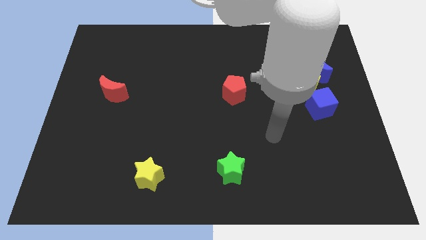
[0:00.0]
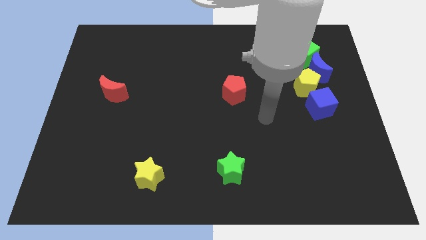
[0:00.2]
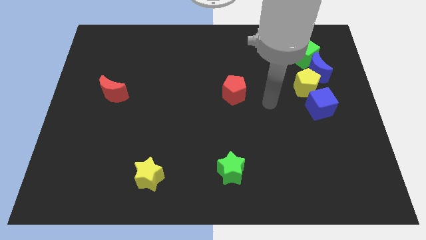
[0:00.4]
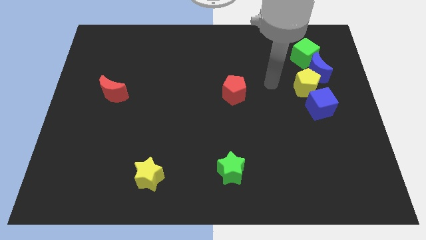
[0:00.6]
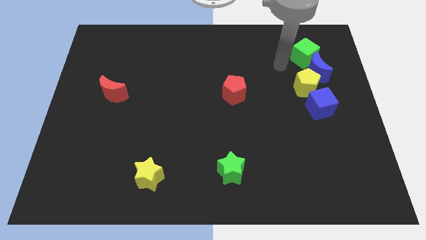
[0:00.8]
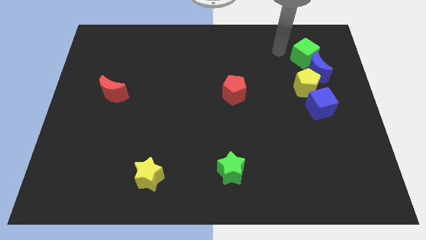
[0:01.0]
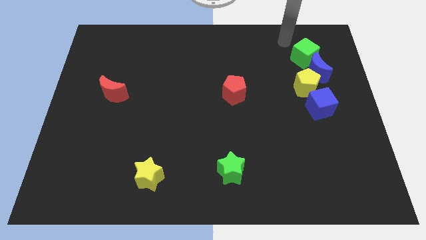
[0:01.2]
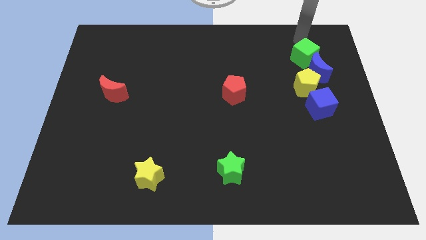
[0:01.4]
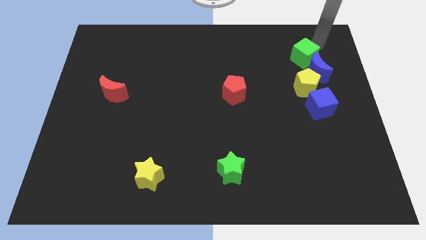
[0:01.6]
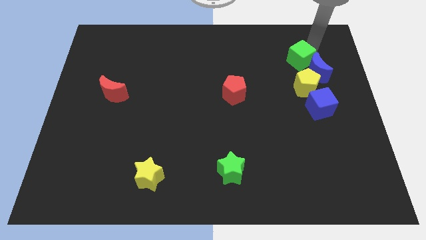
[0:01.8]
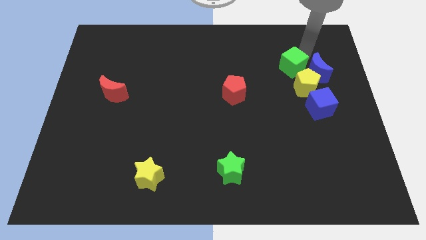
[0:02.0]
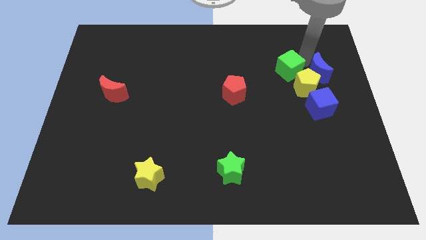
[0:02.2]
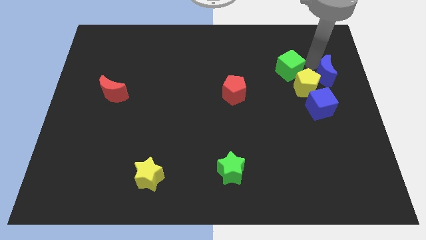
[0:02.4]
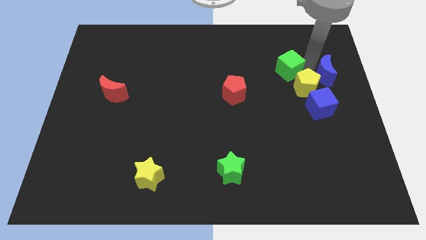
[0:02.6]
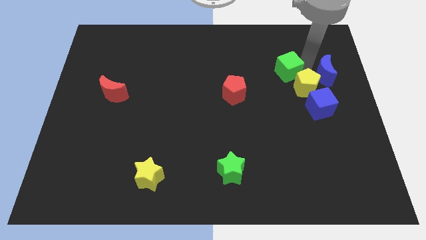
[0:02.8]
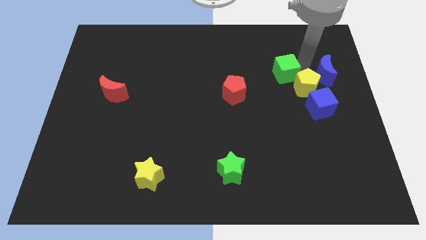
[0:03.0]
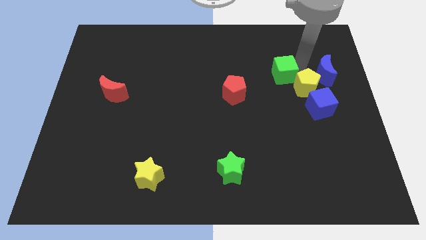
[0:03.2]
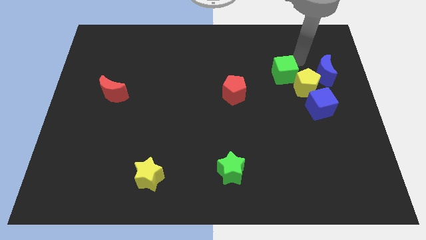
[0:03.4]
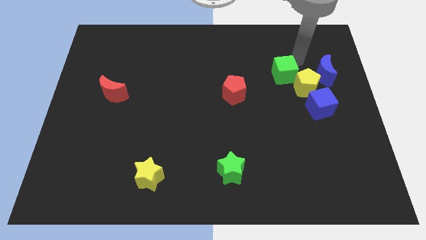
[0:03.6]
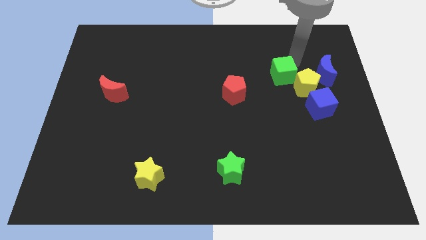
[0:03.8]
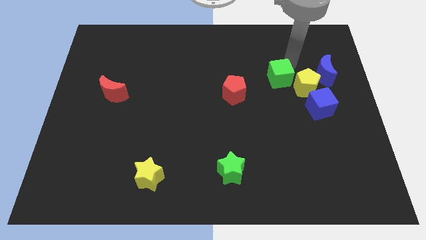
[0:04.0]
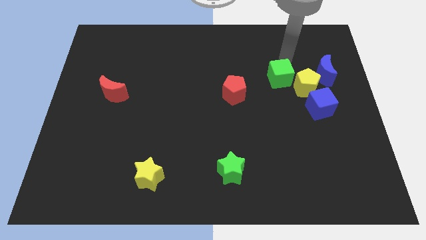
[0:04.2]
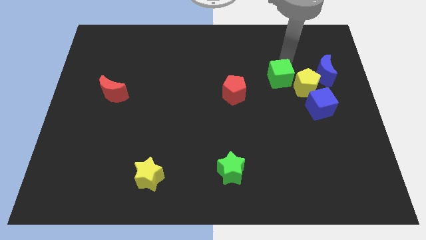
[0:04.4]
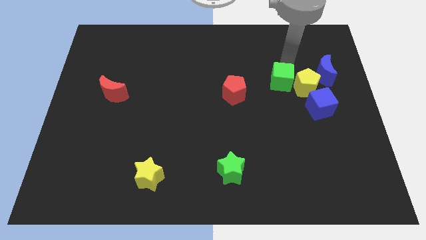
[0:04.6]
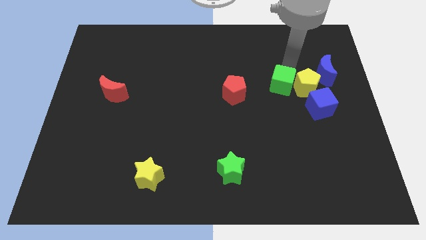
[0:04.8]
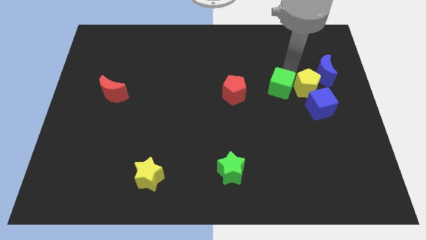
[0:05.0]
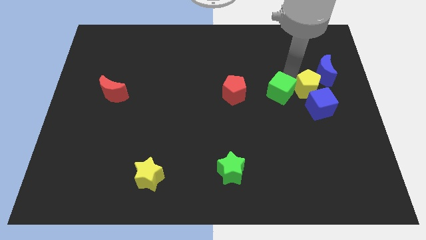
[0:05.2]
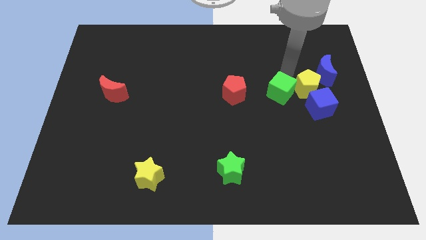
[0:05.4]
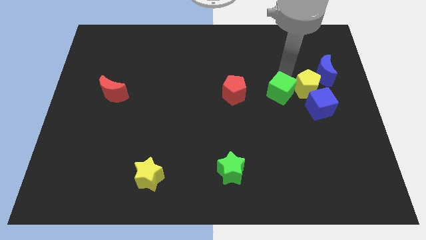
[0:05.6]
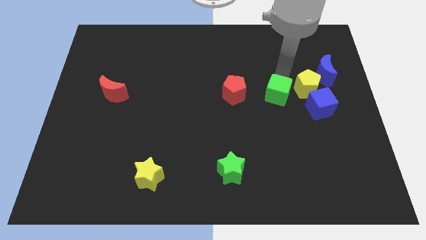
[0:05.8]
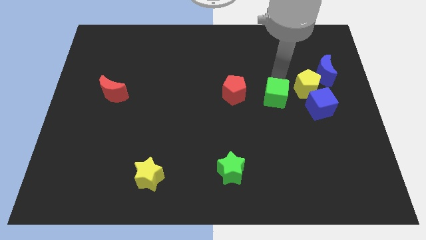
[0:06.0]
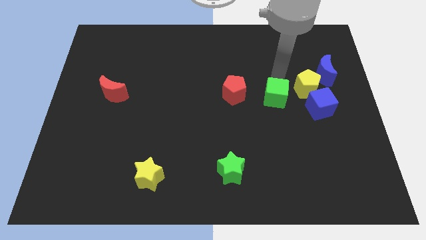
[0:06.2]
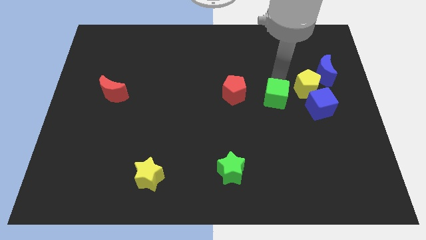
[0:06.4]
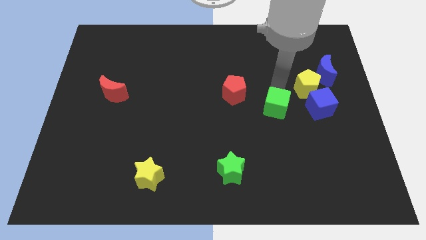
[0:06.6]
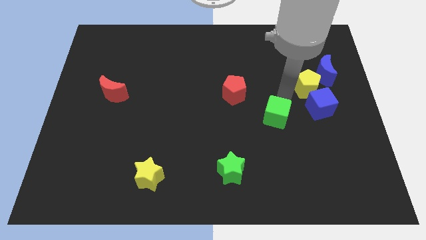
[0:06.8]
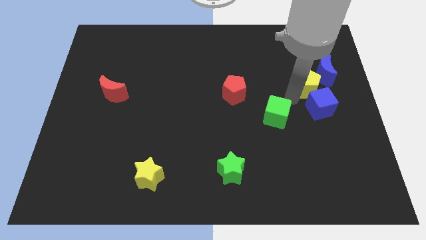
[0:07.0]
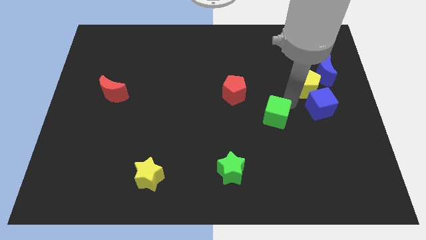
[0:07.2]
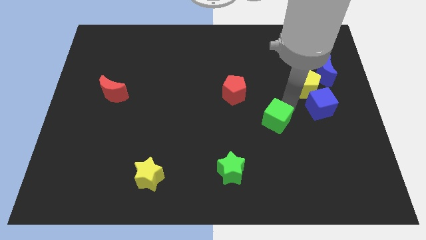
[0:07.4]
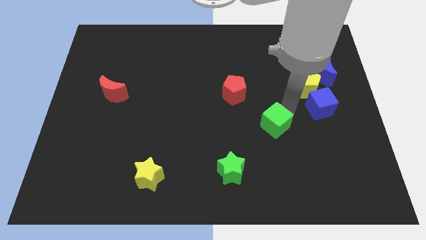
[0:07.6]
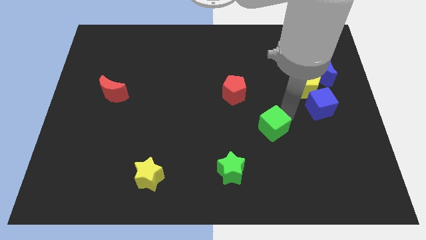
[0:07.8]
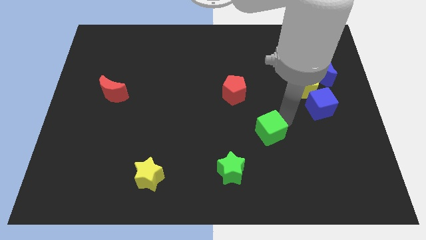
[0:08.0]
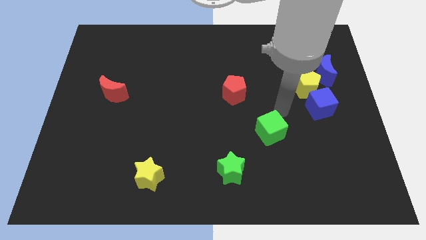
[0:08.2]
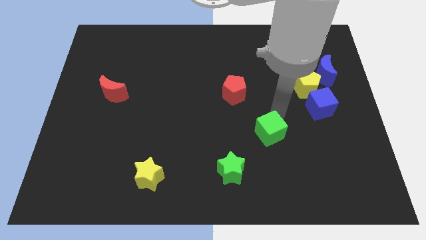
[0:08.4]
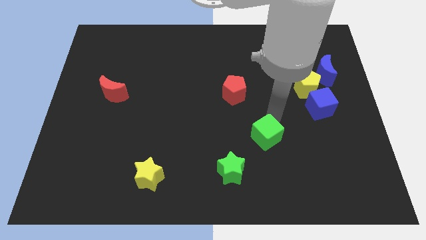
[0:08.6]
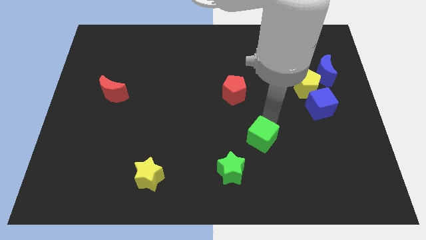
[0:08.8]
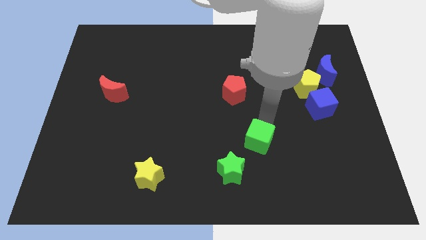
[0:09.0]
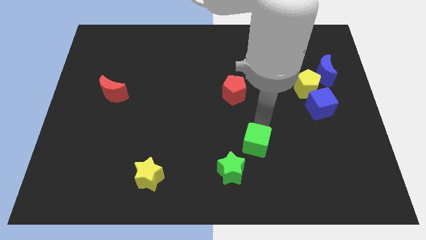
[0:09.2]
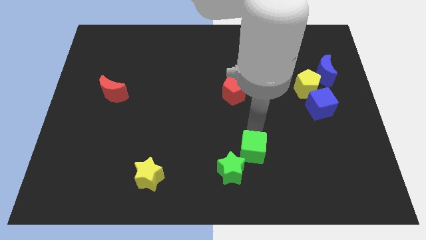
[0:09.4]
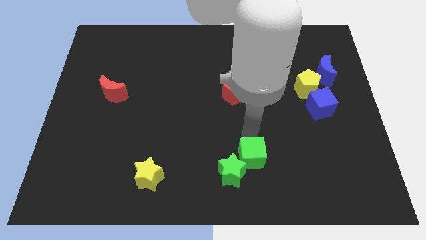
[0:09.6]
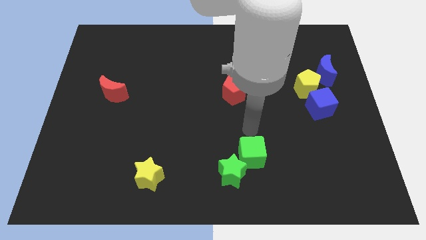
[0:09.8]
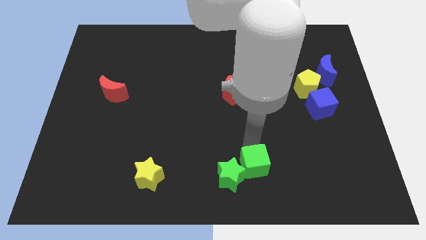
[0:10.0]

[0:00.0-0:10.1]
push the green cube to the bottom side
